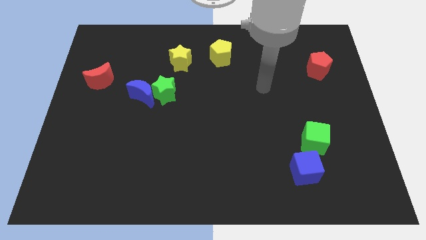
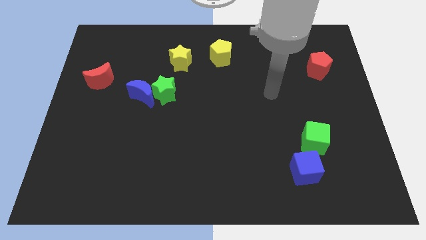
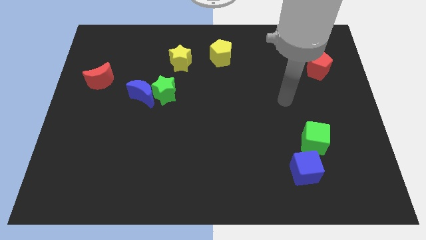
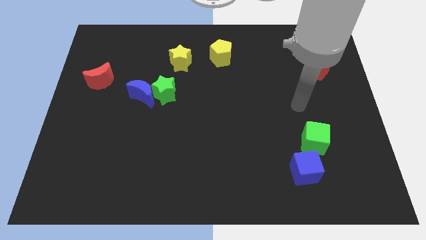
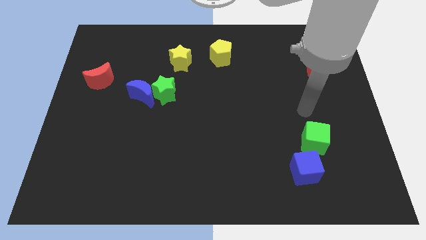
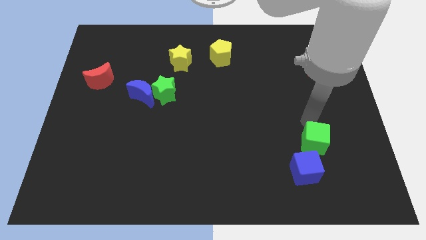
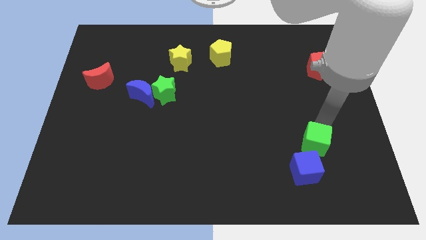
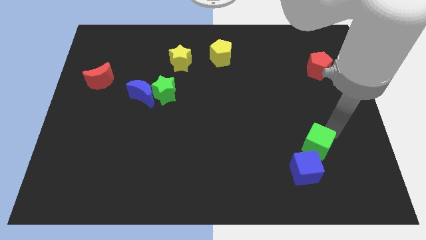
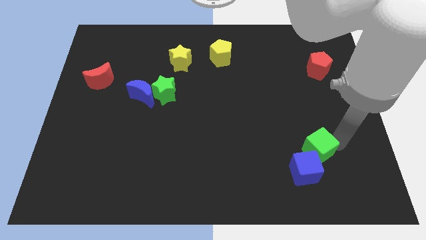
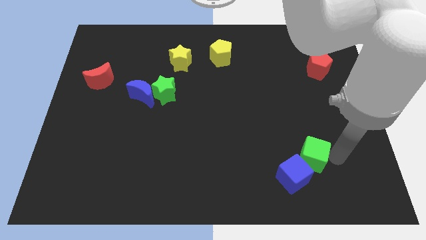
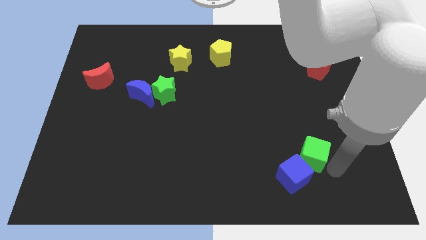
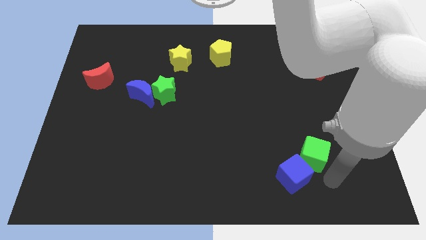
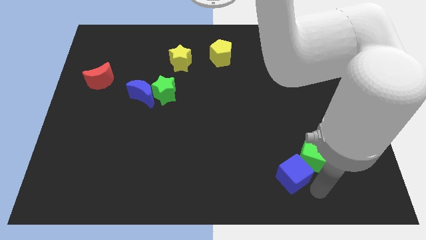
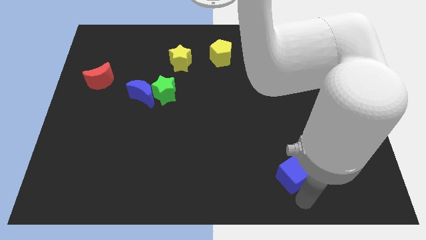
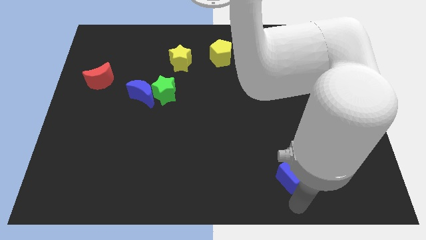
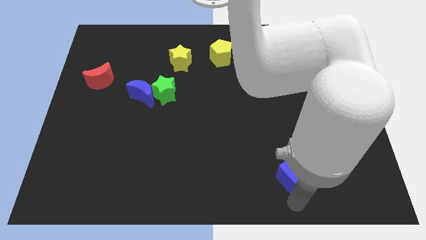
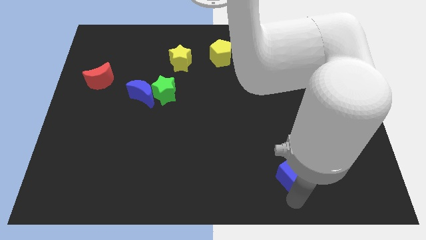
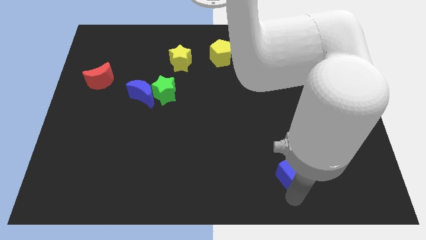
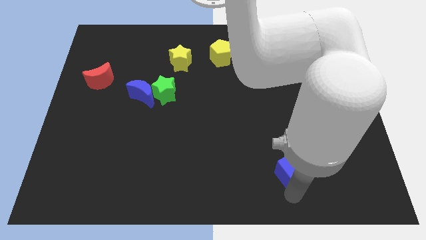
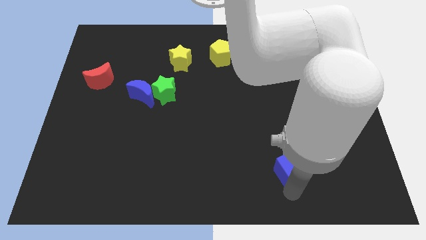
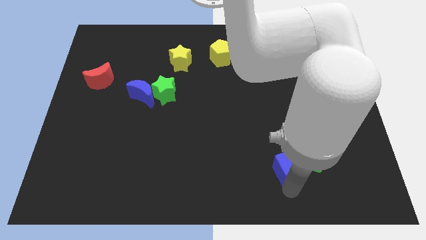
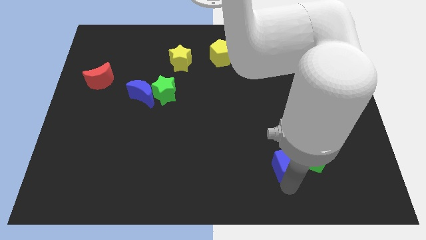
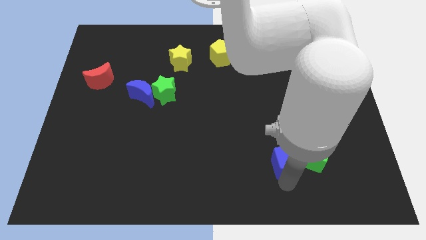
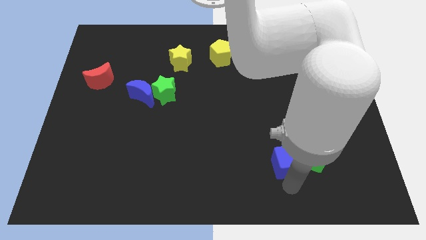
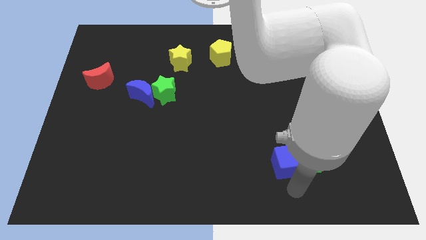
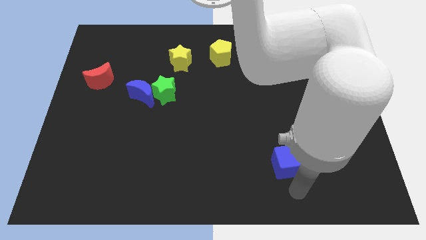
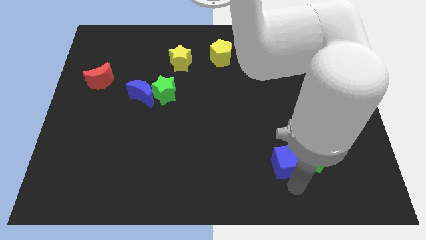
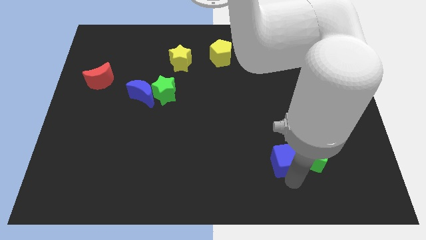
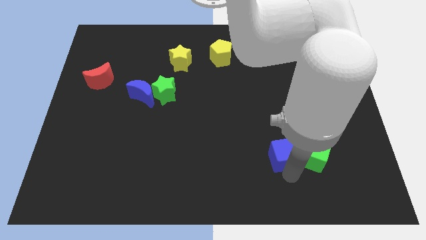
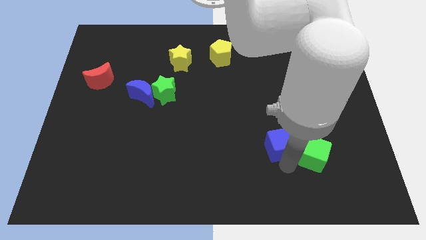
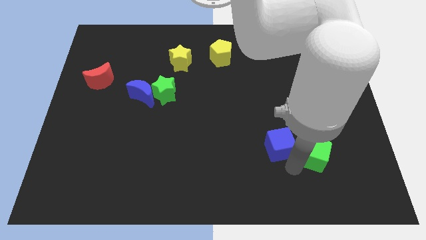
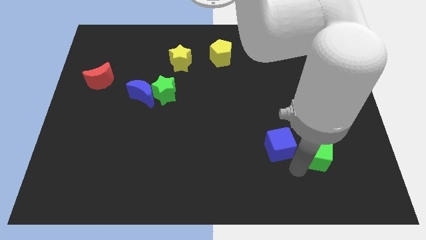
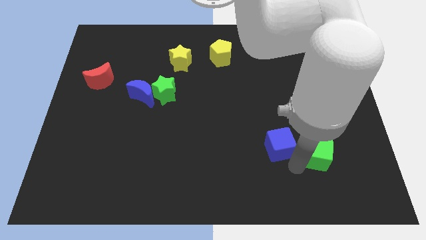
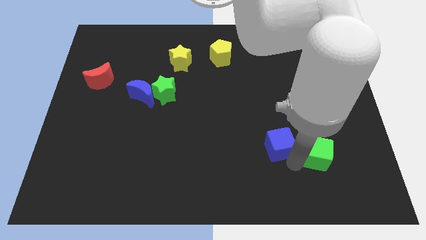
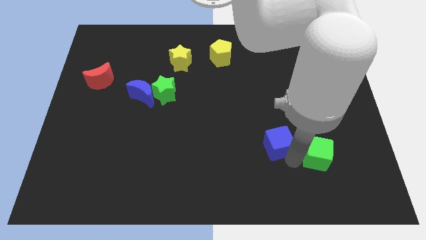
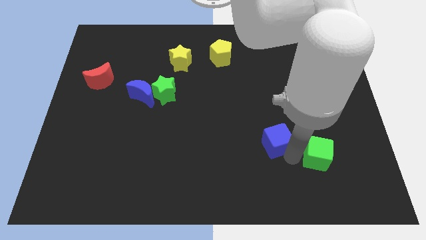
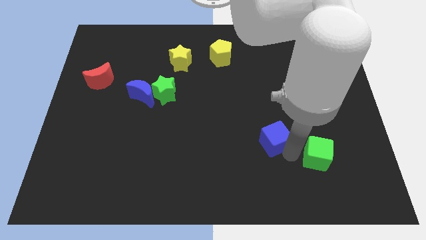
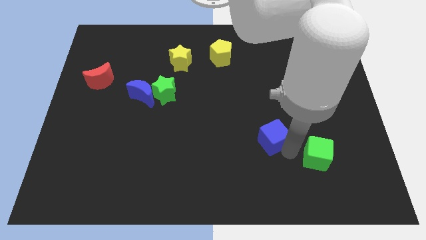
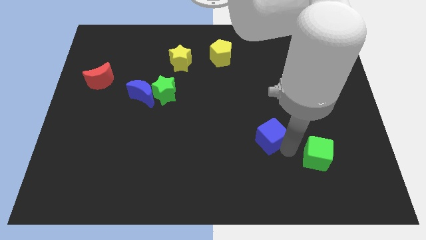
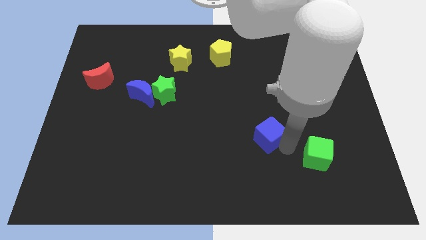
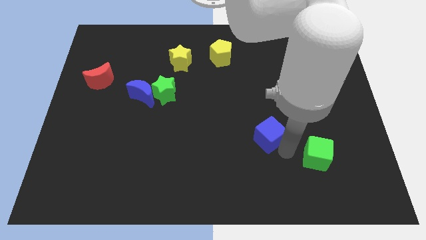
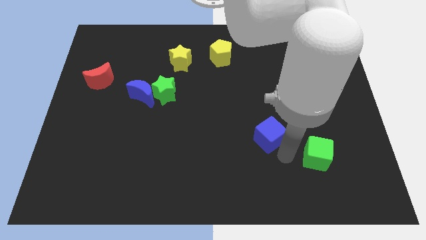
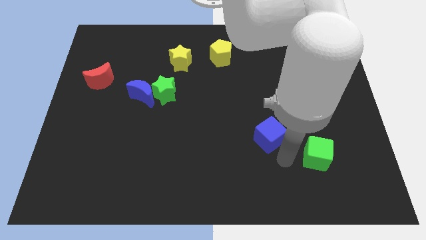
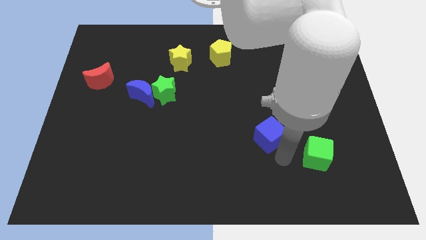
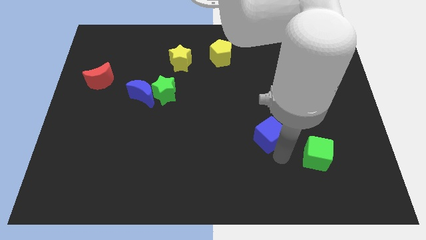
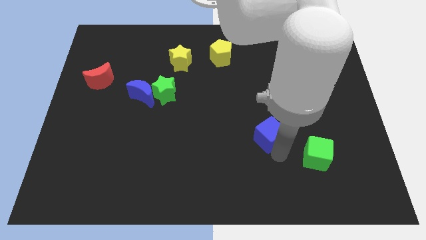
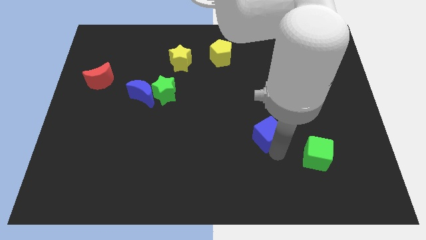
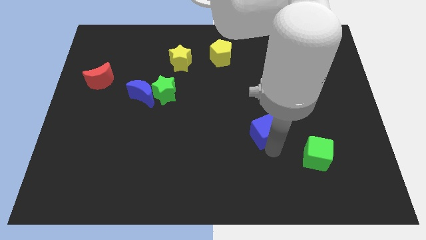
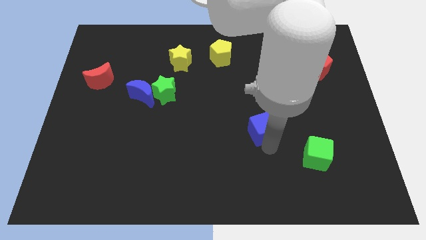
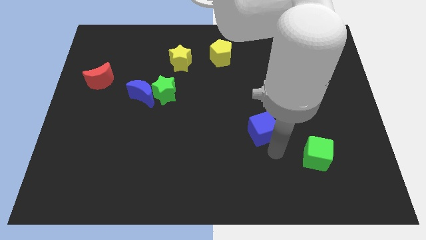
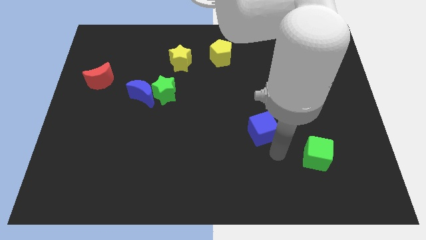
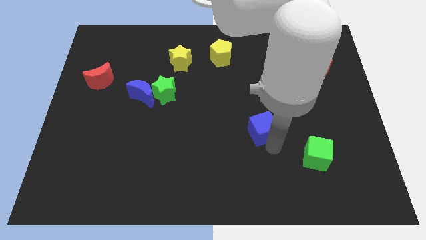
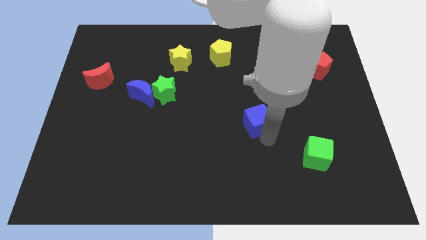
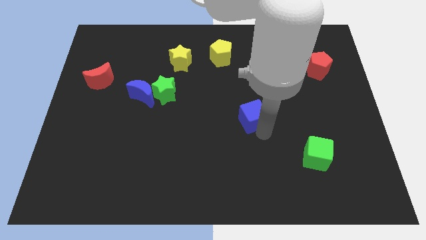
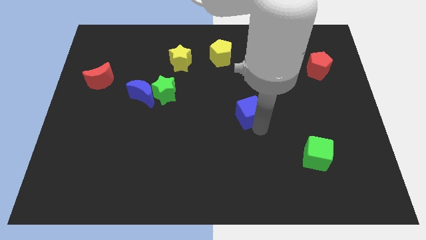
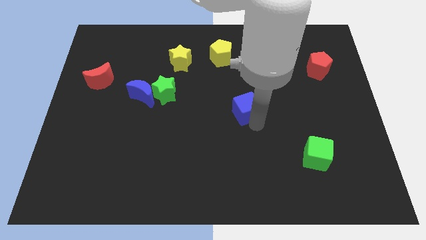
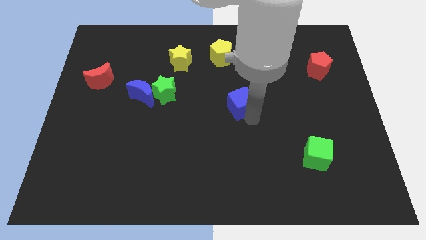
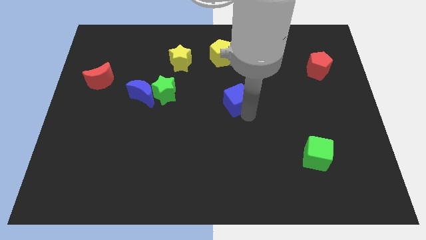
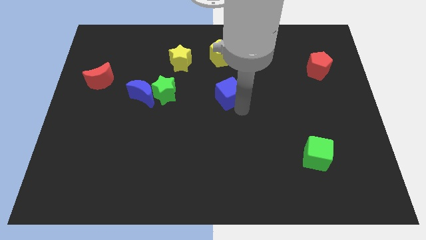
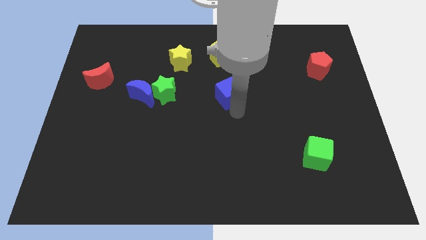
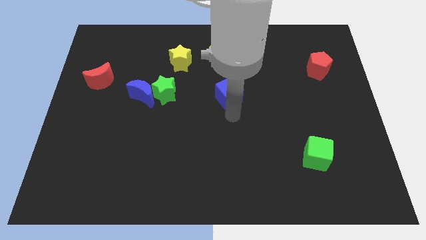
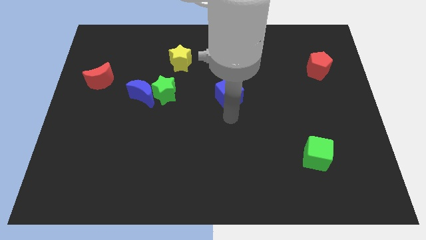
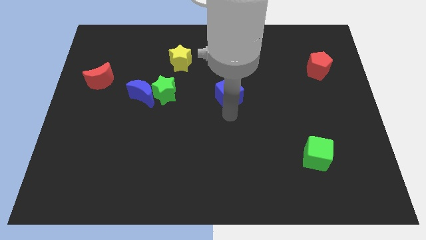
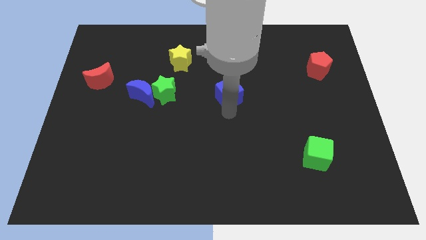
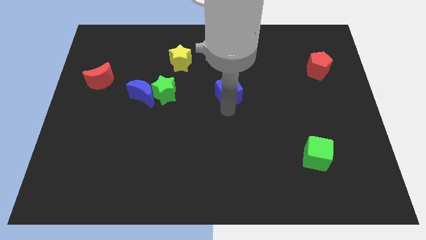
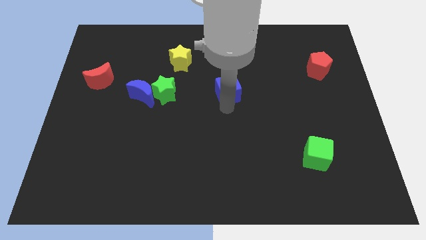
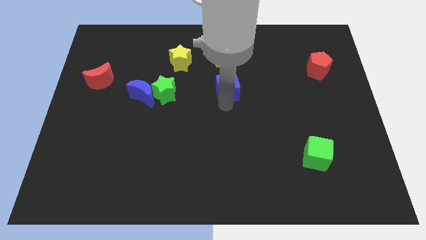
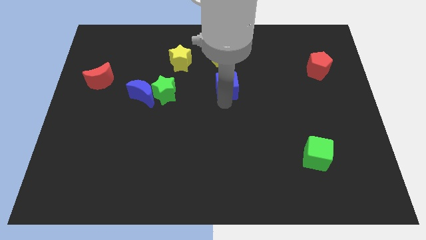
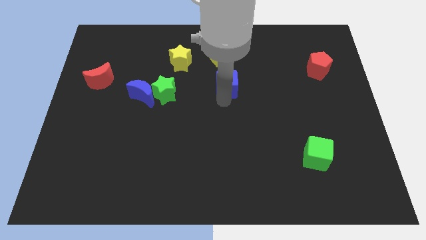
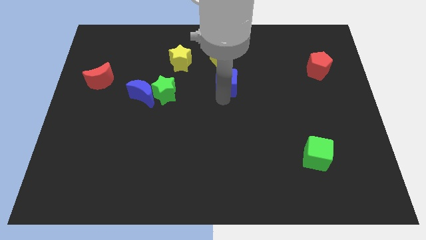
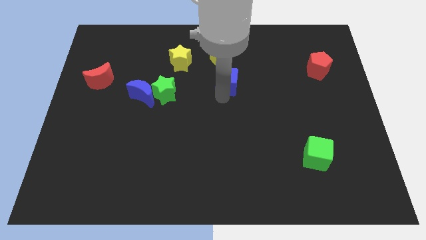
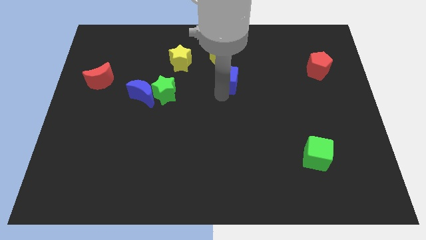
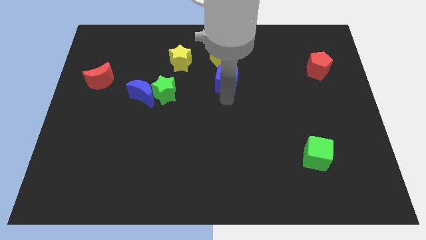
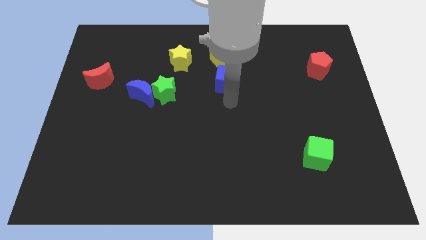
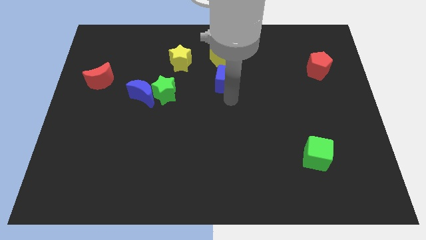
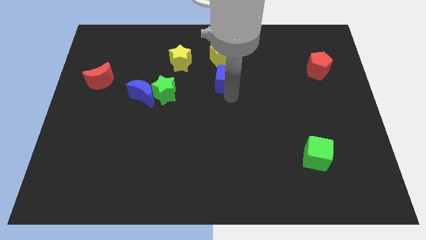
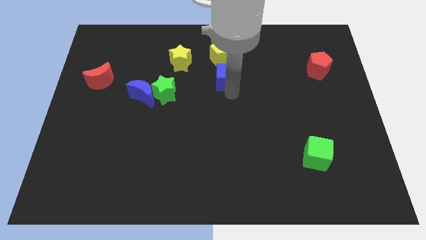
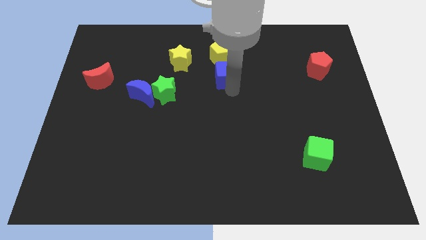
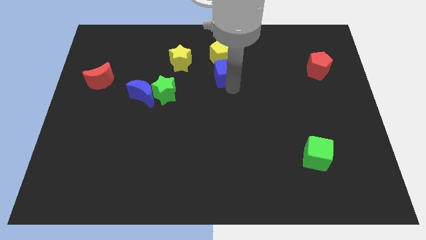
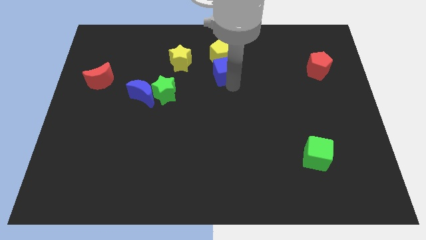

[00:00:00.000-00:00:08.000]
slide the blue cube towards the yellow pentagon
